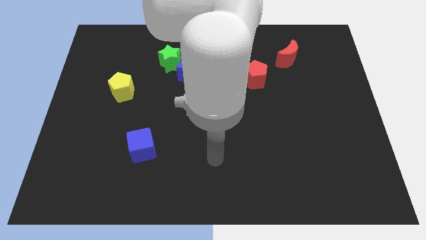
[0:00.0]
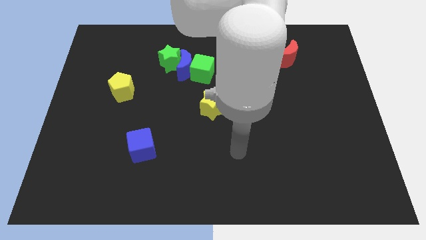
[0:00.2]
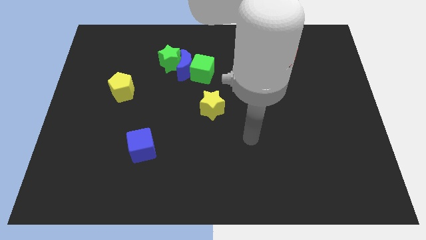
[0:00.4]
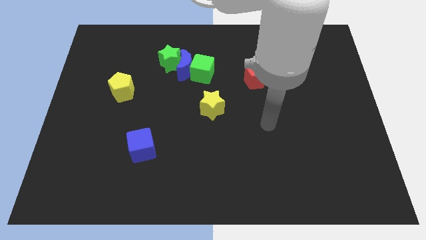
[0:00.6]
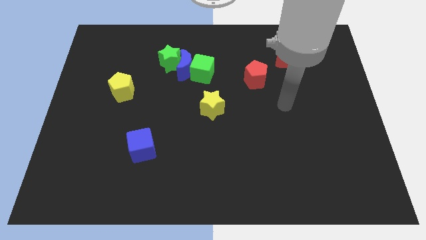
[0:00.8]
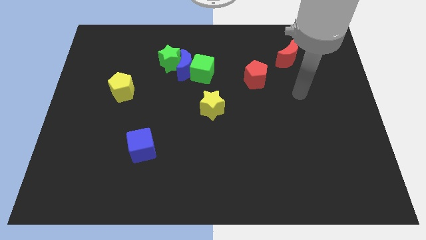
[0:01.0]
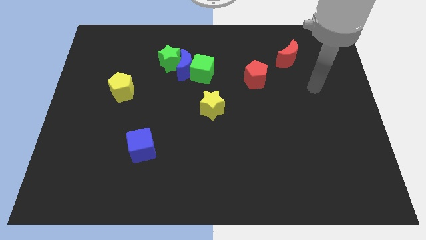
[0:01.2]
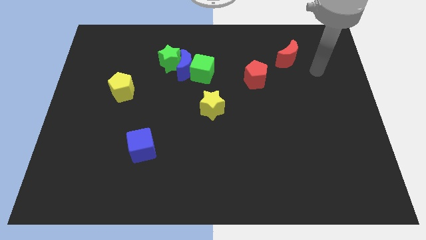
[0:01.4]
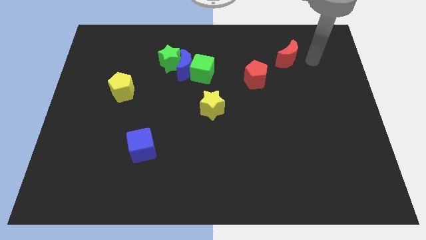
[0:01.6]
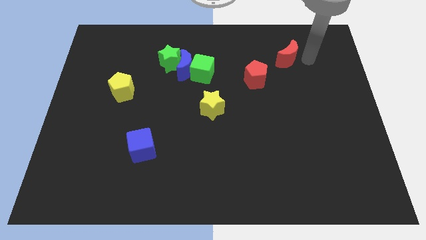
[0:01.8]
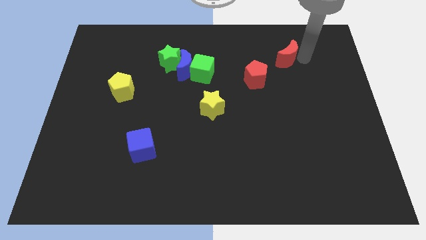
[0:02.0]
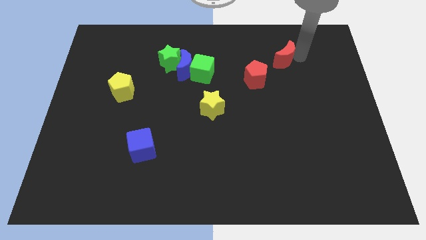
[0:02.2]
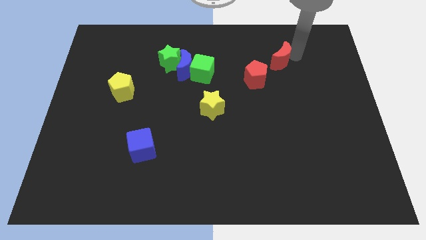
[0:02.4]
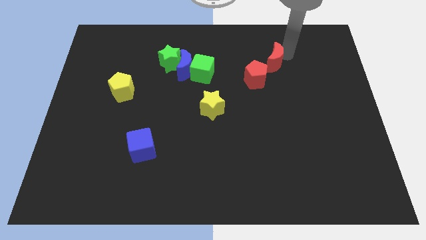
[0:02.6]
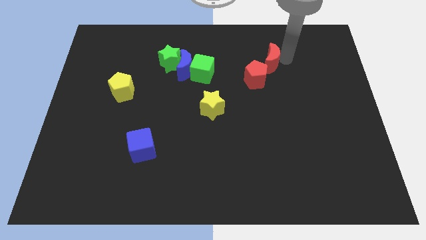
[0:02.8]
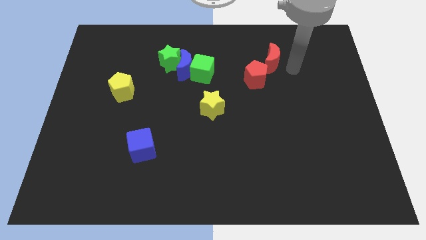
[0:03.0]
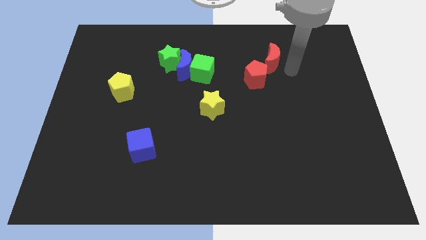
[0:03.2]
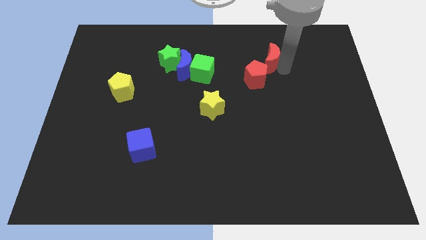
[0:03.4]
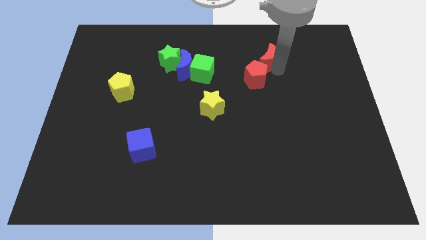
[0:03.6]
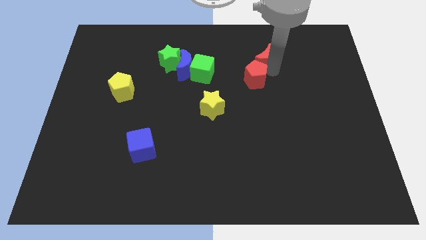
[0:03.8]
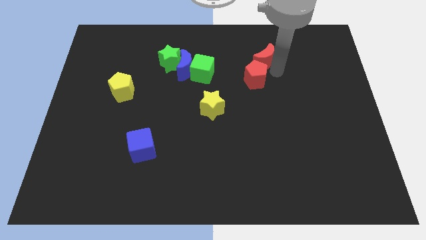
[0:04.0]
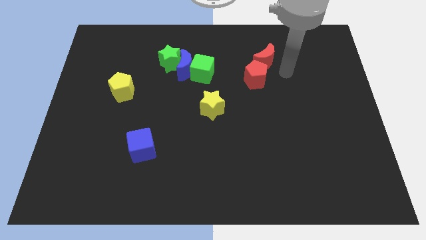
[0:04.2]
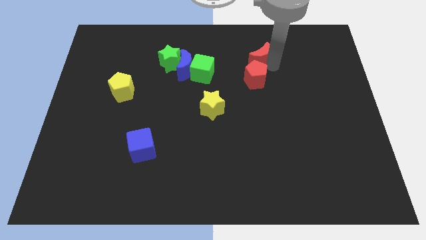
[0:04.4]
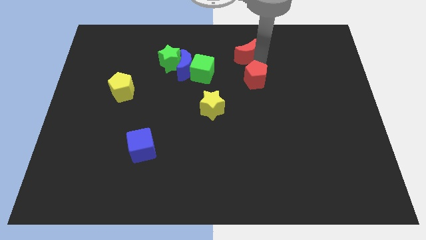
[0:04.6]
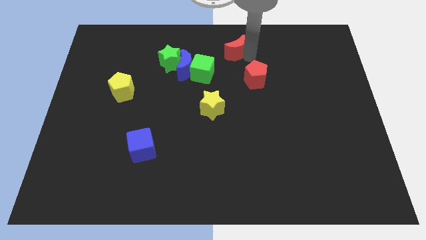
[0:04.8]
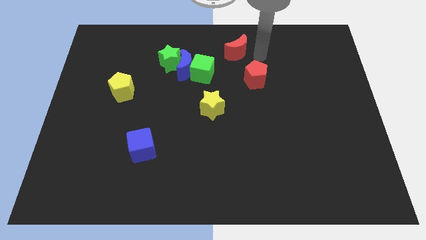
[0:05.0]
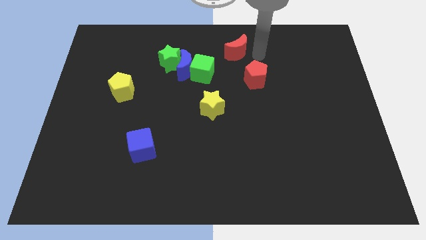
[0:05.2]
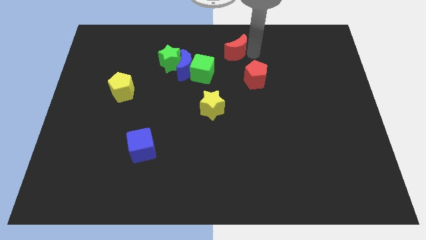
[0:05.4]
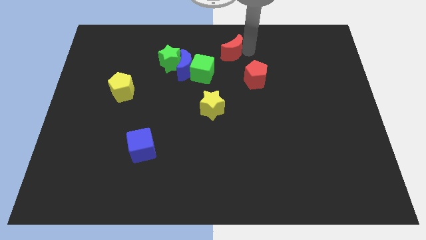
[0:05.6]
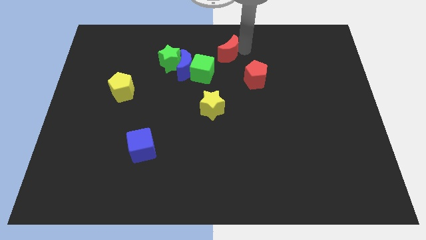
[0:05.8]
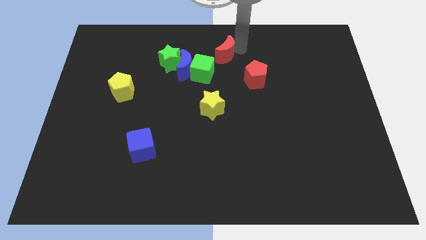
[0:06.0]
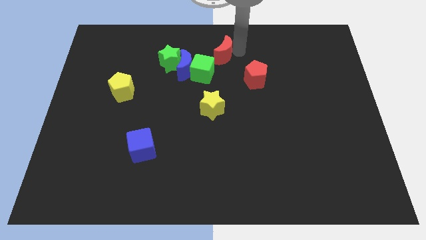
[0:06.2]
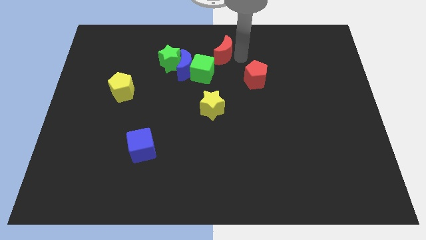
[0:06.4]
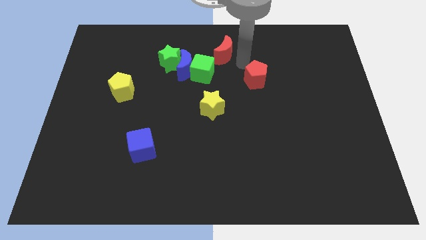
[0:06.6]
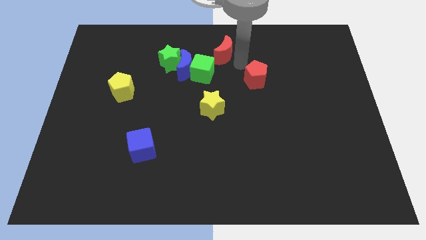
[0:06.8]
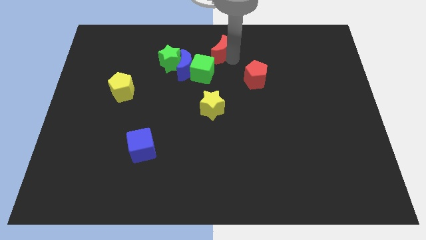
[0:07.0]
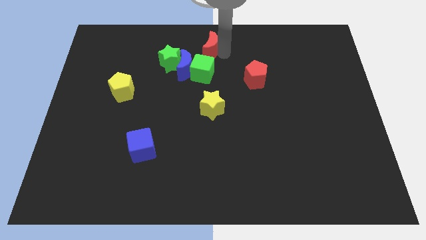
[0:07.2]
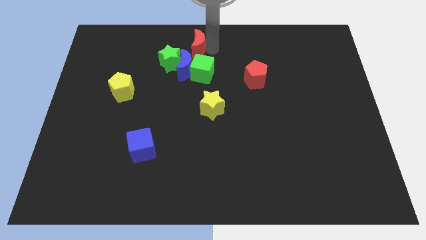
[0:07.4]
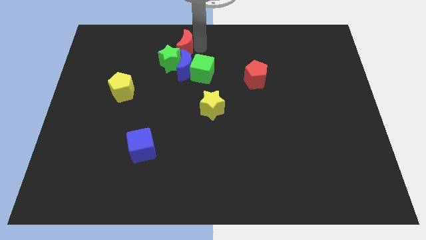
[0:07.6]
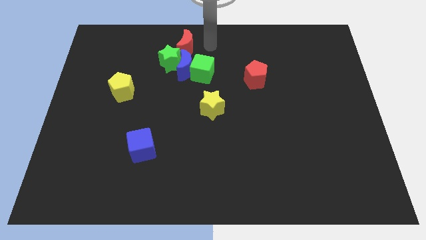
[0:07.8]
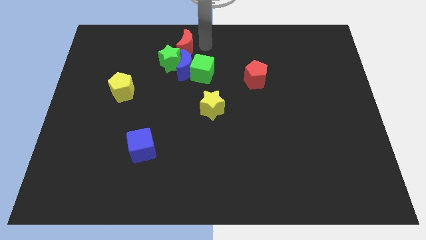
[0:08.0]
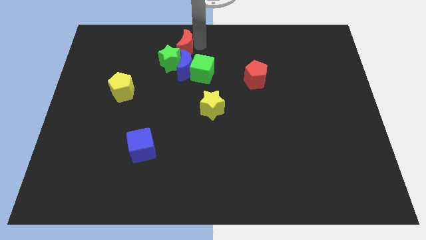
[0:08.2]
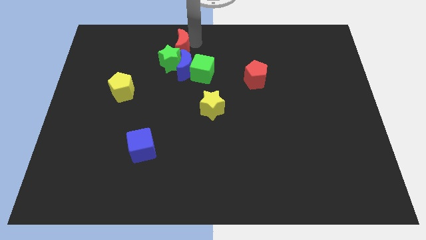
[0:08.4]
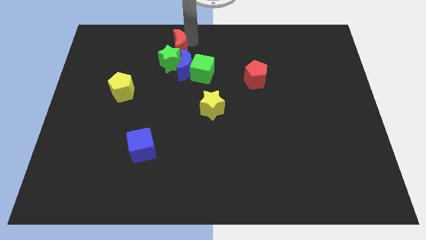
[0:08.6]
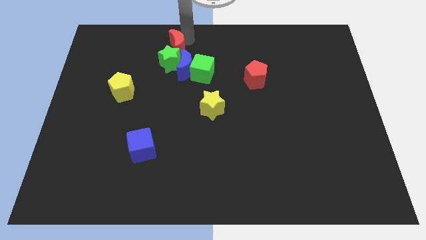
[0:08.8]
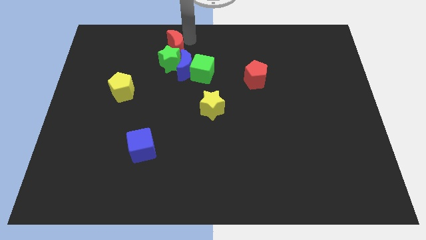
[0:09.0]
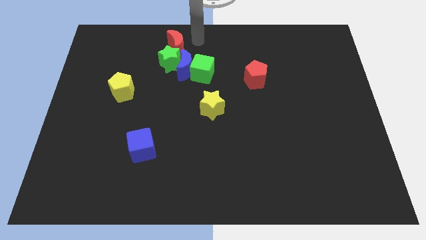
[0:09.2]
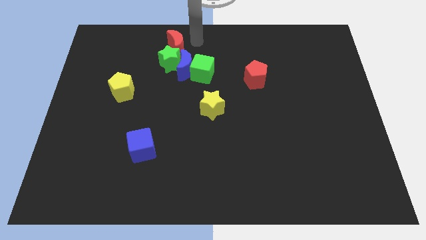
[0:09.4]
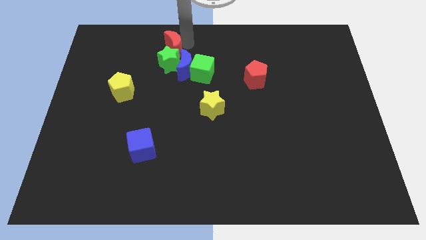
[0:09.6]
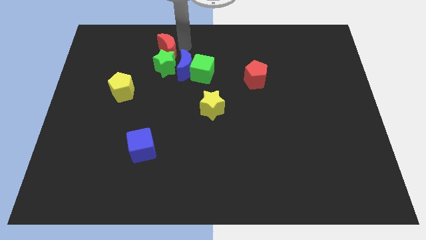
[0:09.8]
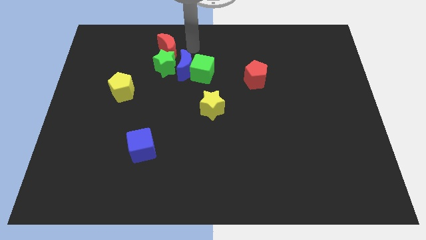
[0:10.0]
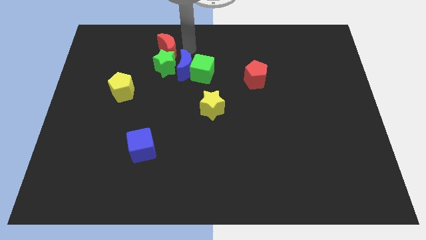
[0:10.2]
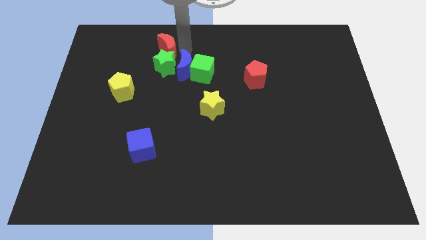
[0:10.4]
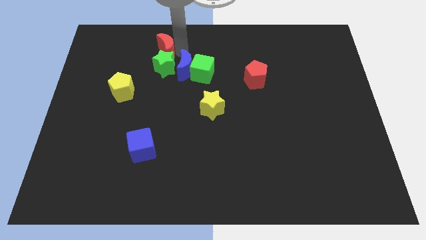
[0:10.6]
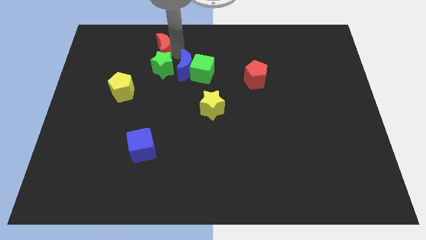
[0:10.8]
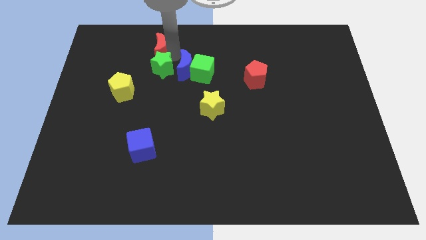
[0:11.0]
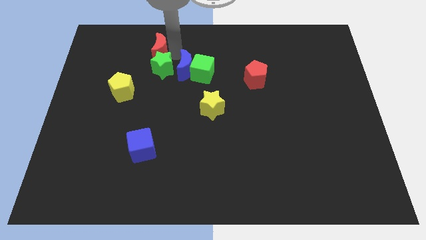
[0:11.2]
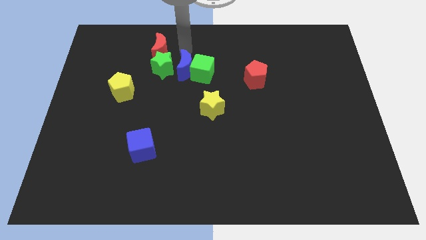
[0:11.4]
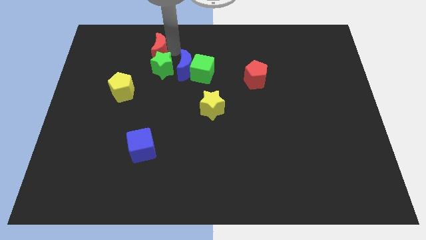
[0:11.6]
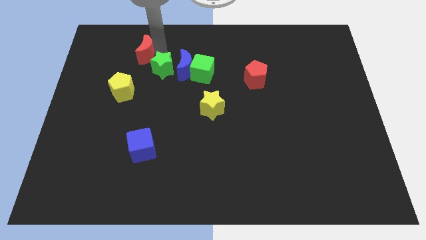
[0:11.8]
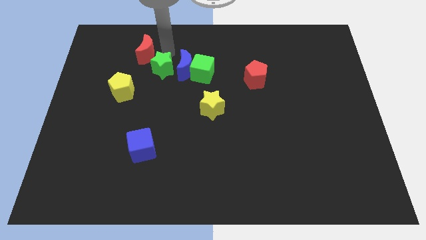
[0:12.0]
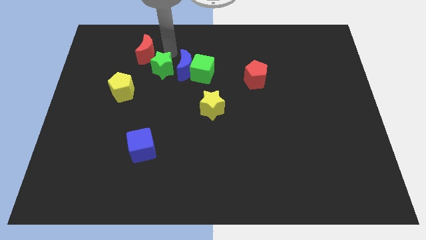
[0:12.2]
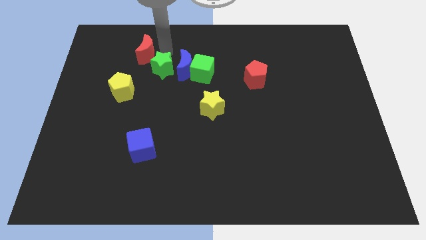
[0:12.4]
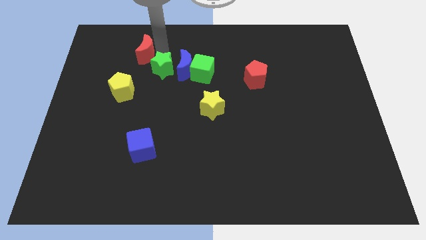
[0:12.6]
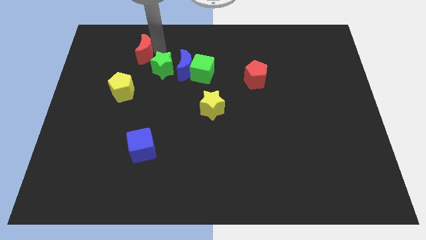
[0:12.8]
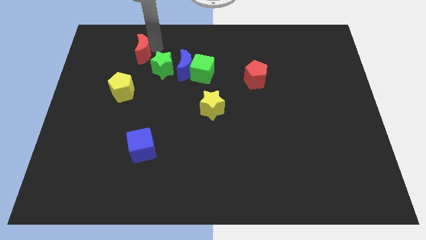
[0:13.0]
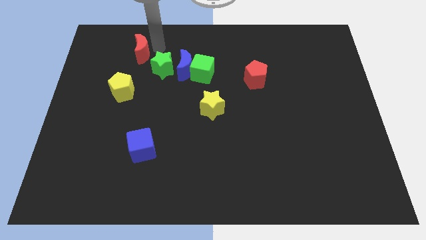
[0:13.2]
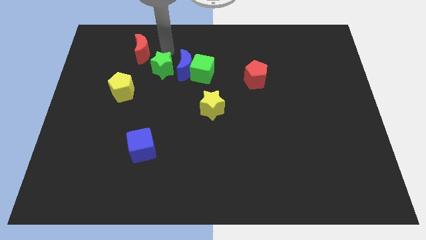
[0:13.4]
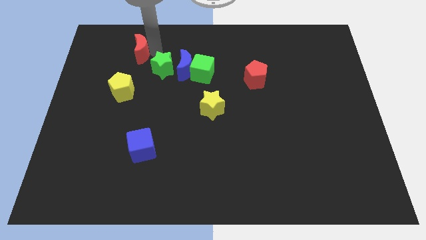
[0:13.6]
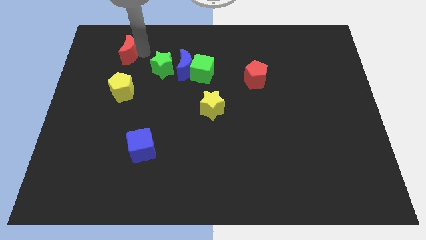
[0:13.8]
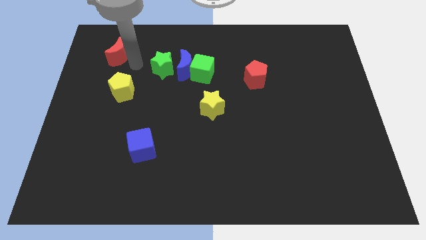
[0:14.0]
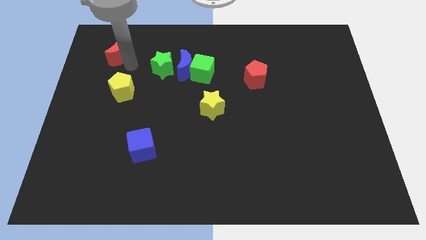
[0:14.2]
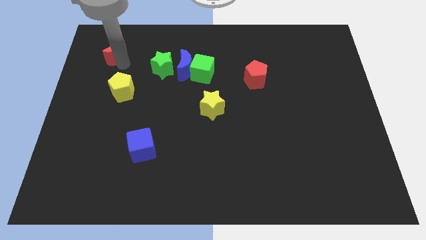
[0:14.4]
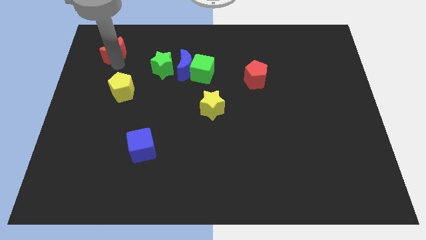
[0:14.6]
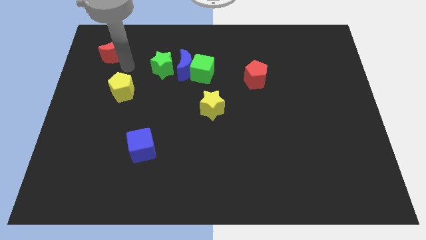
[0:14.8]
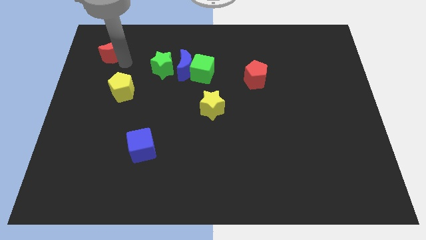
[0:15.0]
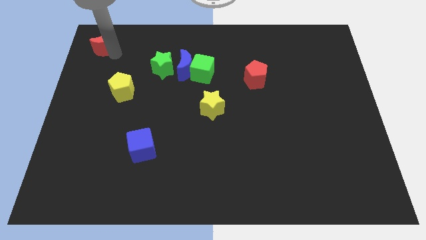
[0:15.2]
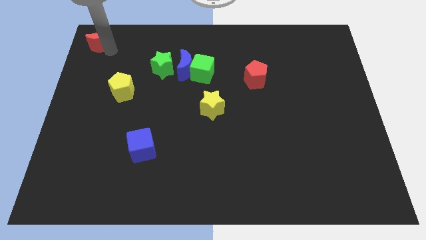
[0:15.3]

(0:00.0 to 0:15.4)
put the red moon to the top left
